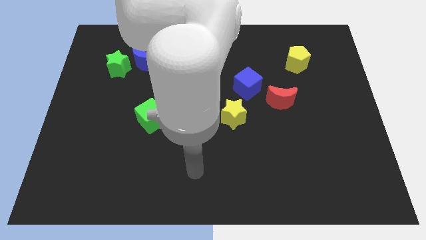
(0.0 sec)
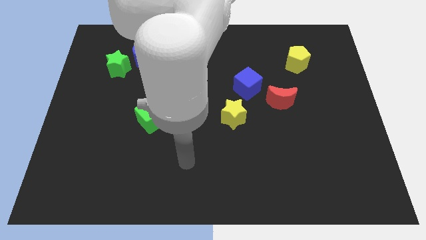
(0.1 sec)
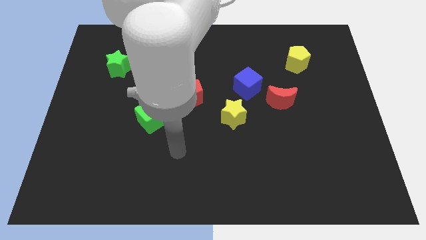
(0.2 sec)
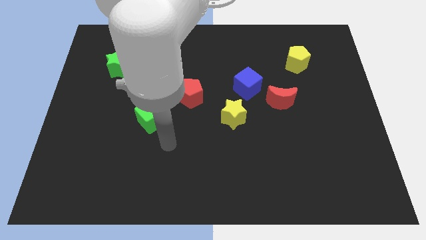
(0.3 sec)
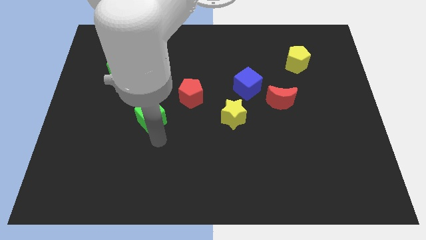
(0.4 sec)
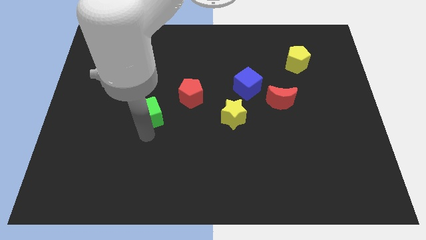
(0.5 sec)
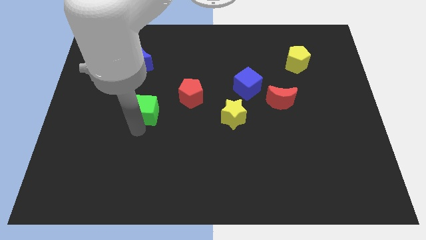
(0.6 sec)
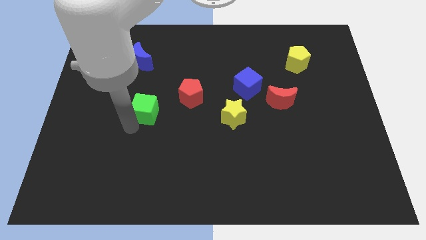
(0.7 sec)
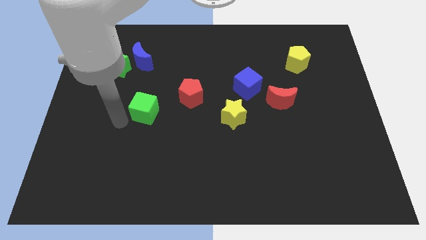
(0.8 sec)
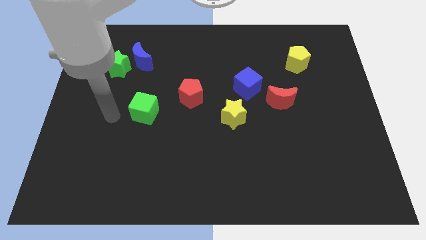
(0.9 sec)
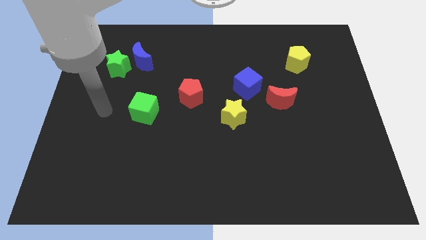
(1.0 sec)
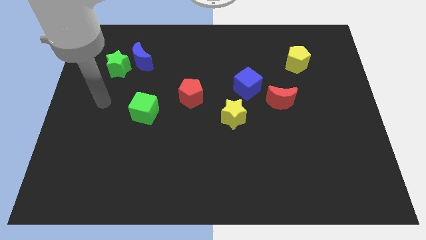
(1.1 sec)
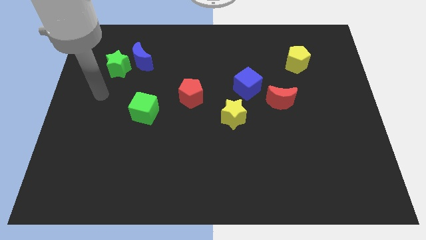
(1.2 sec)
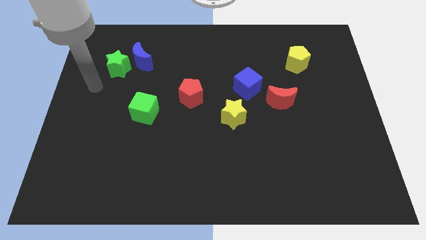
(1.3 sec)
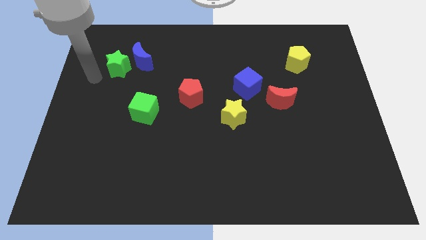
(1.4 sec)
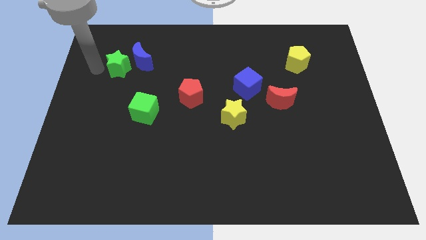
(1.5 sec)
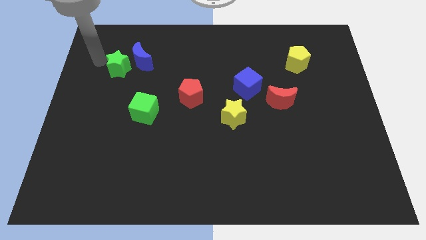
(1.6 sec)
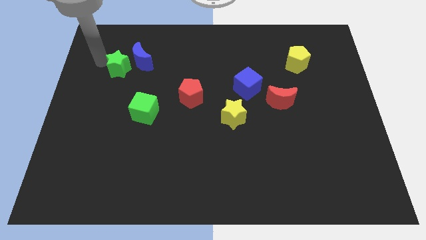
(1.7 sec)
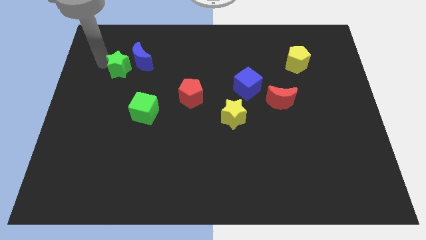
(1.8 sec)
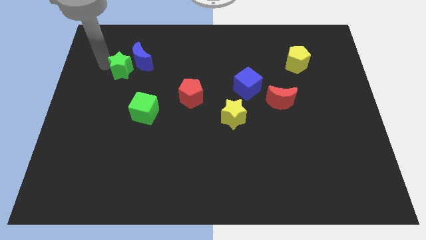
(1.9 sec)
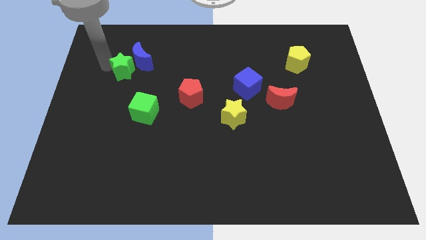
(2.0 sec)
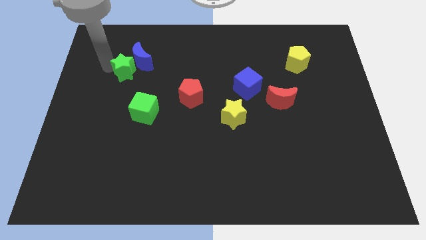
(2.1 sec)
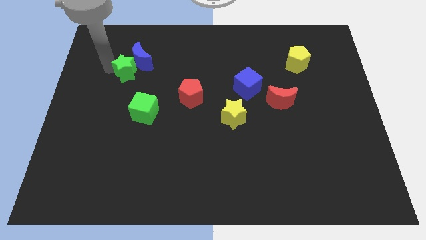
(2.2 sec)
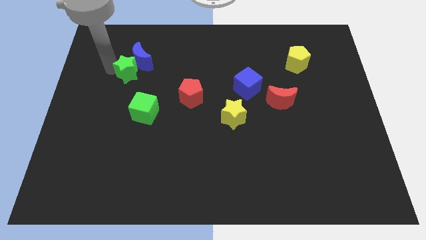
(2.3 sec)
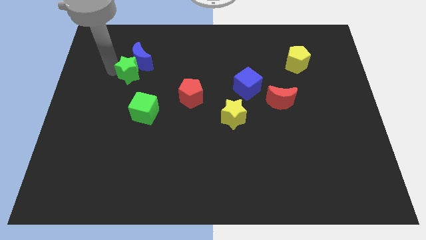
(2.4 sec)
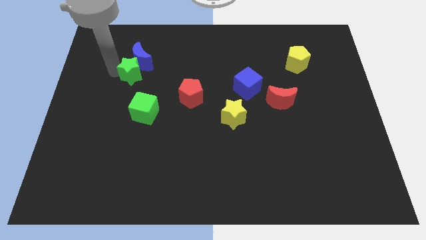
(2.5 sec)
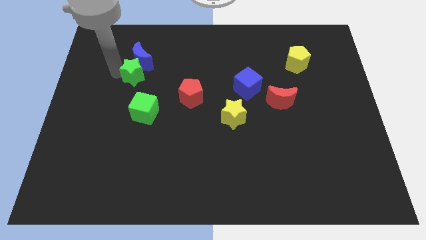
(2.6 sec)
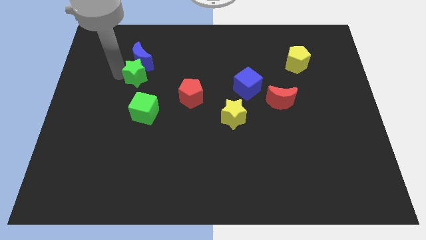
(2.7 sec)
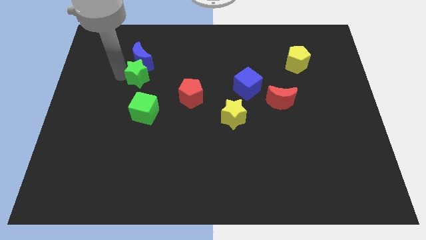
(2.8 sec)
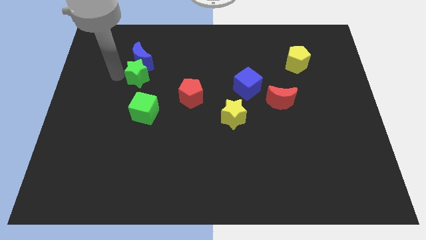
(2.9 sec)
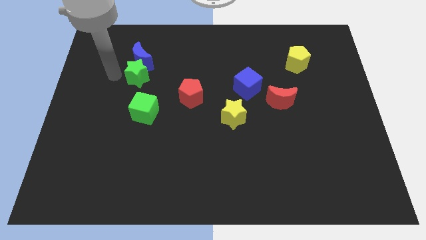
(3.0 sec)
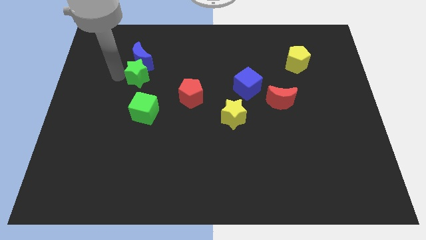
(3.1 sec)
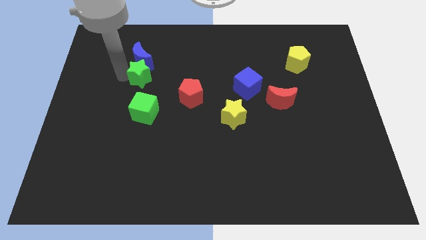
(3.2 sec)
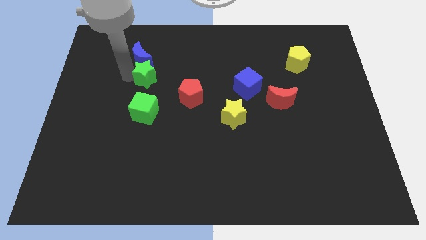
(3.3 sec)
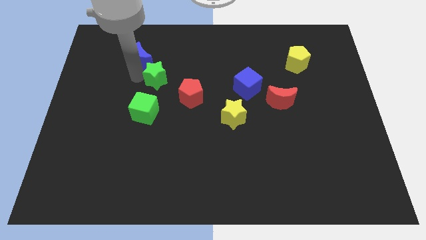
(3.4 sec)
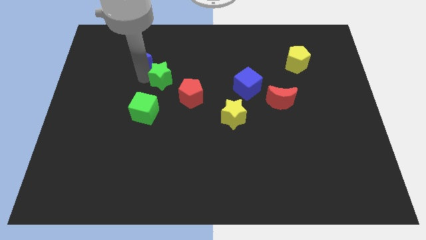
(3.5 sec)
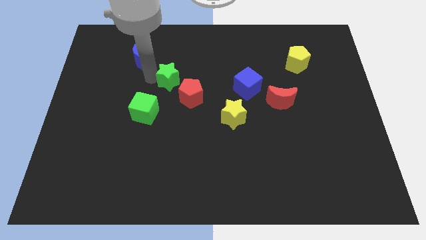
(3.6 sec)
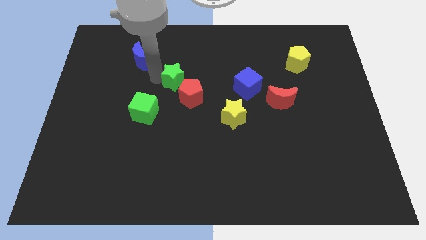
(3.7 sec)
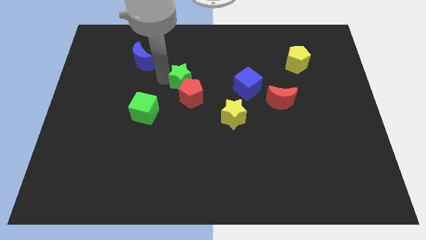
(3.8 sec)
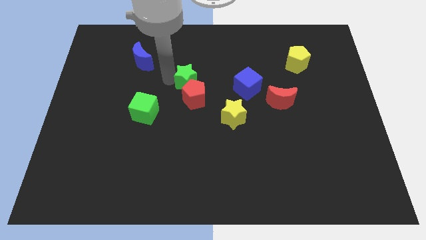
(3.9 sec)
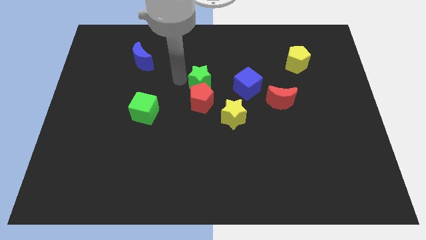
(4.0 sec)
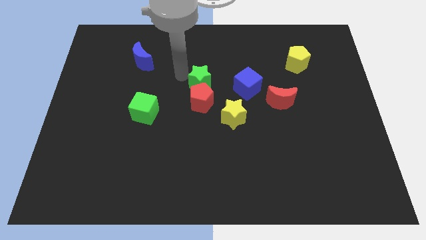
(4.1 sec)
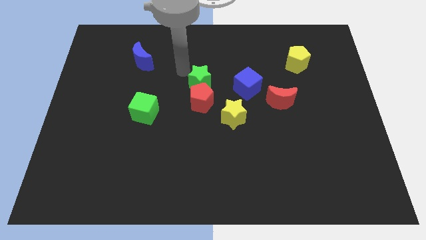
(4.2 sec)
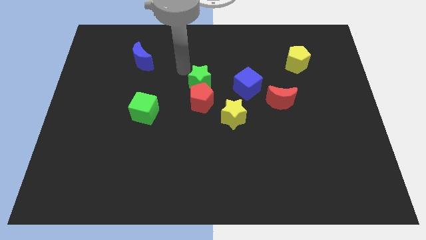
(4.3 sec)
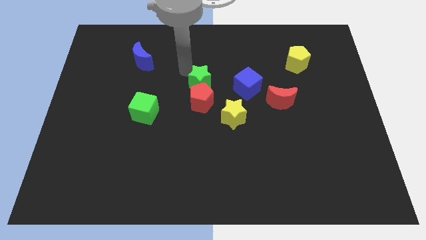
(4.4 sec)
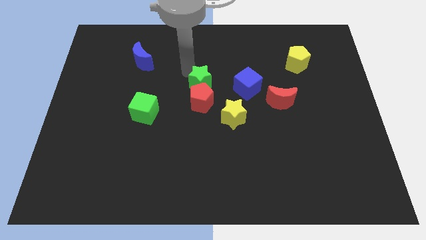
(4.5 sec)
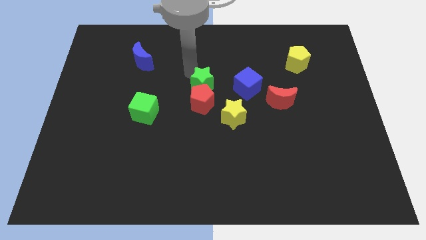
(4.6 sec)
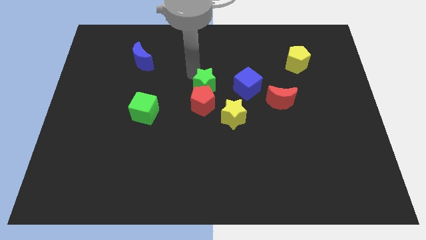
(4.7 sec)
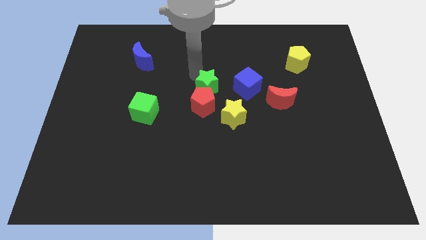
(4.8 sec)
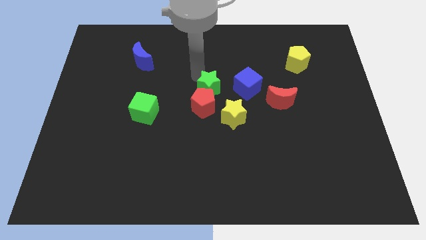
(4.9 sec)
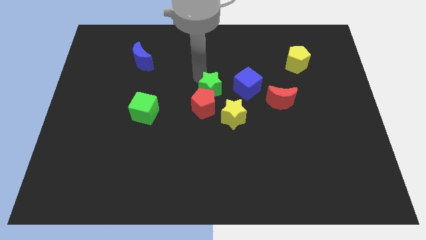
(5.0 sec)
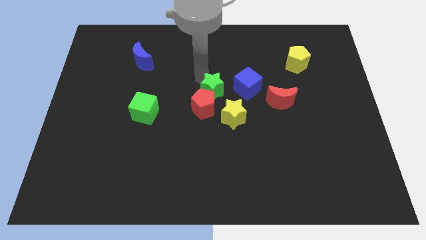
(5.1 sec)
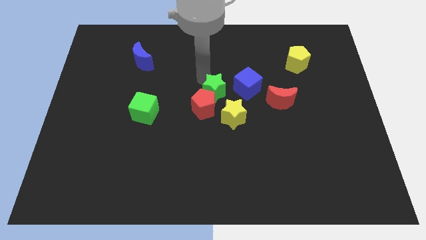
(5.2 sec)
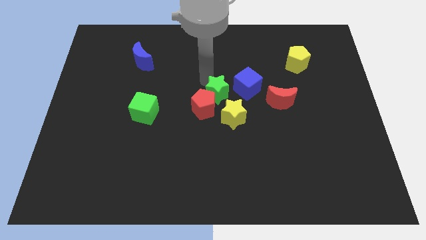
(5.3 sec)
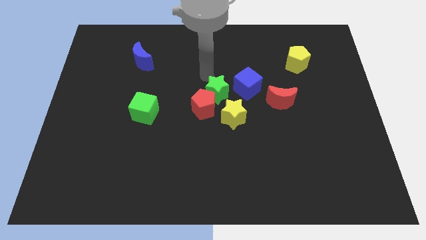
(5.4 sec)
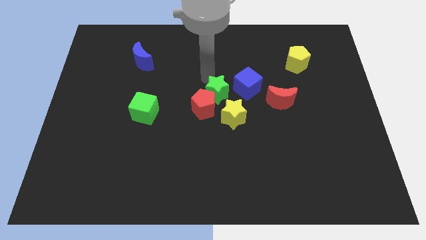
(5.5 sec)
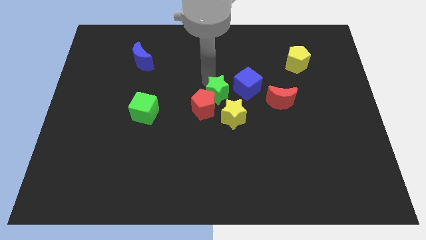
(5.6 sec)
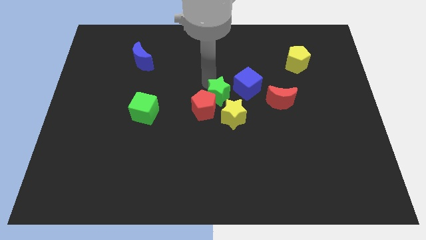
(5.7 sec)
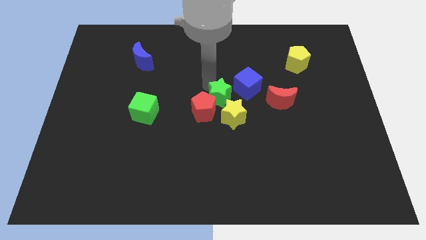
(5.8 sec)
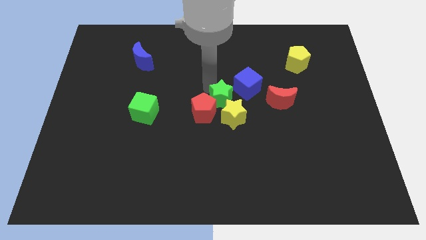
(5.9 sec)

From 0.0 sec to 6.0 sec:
push the green star towards the yellow star

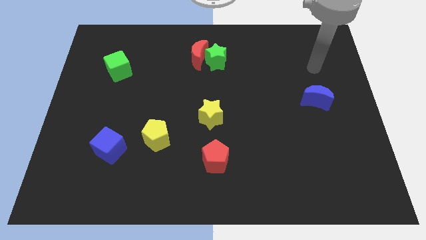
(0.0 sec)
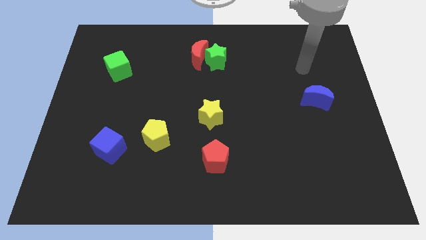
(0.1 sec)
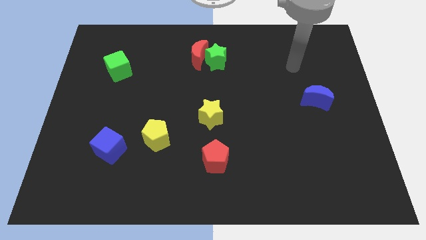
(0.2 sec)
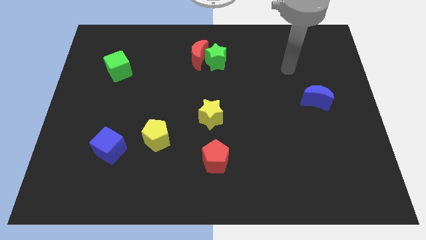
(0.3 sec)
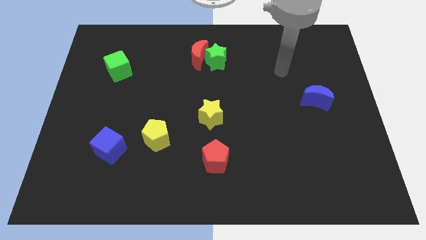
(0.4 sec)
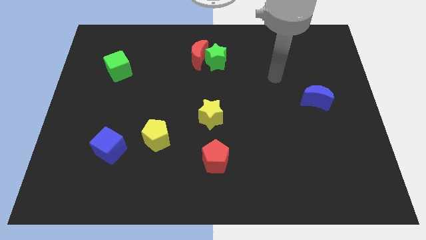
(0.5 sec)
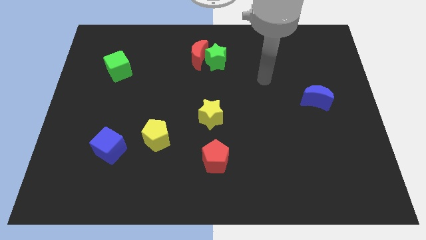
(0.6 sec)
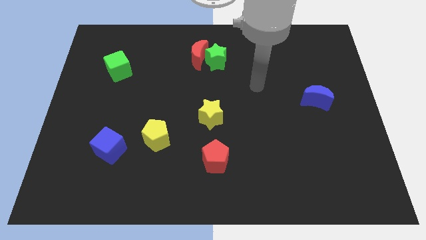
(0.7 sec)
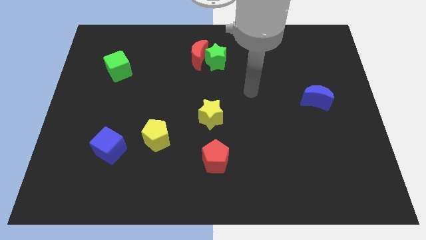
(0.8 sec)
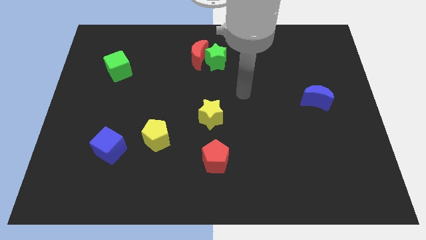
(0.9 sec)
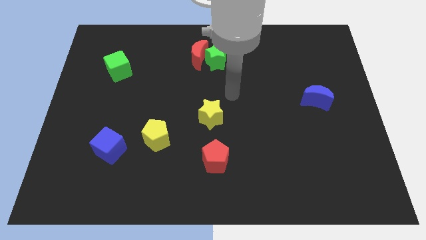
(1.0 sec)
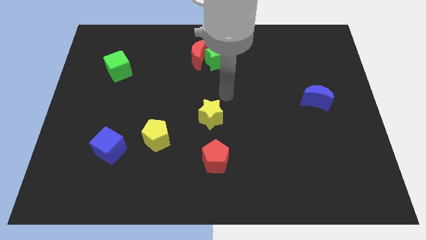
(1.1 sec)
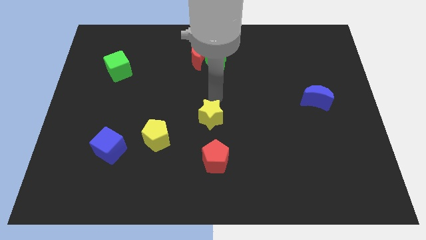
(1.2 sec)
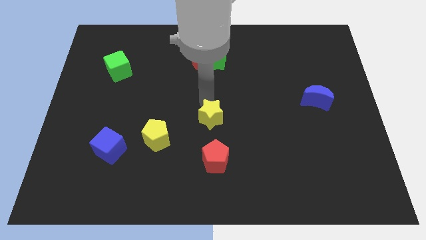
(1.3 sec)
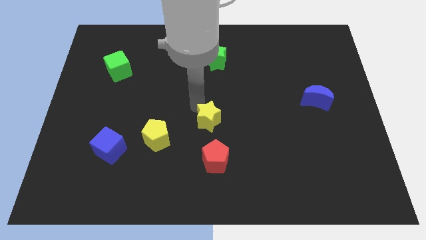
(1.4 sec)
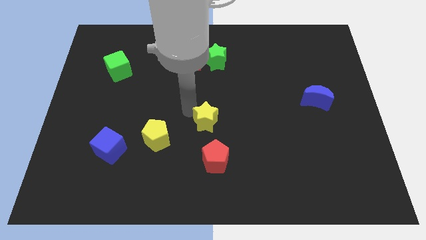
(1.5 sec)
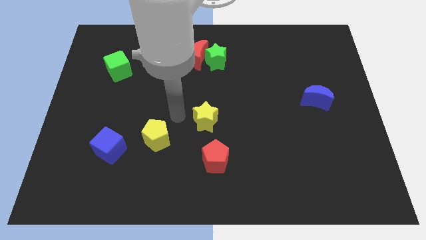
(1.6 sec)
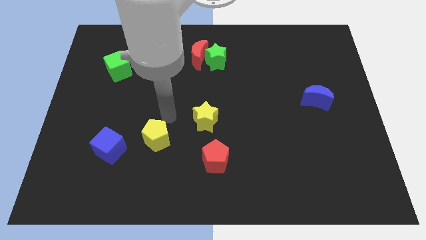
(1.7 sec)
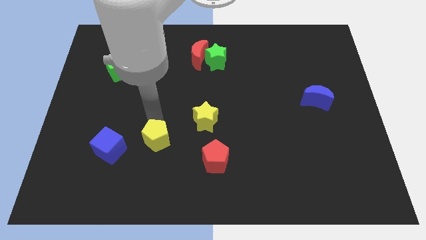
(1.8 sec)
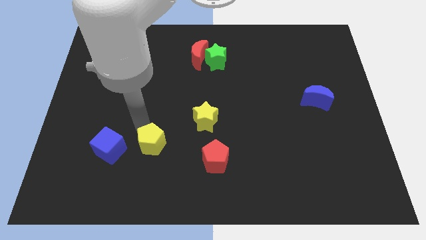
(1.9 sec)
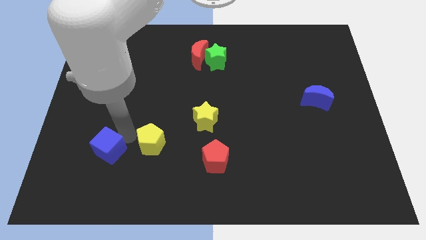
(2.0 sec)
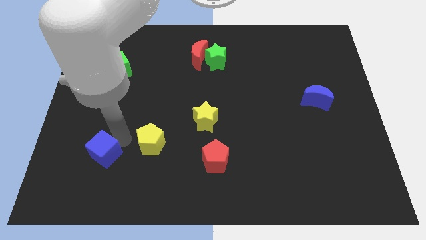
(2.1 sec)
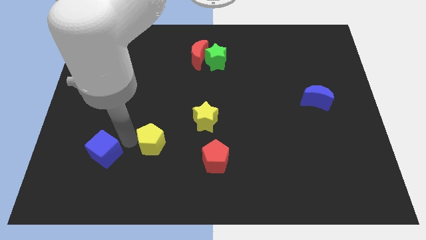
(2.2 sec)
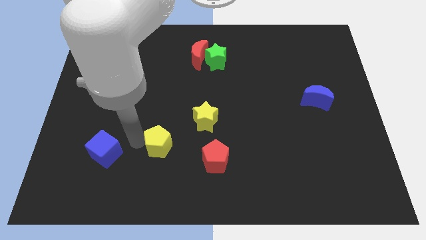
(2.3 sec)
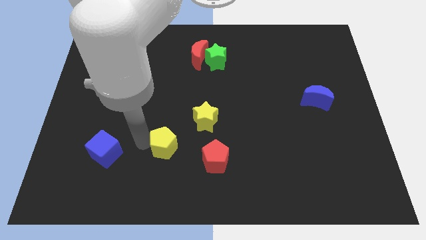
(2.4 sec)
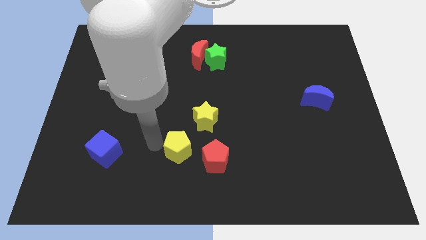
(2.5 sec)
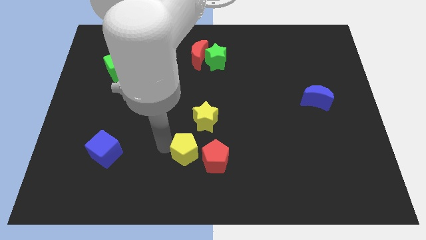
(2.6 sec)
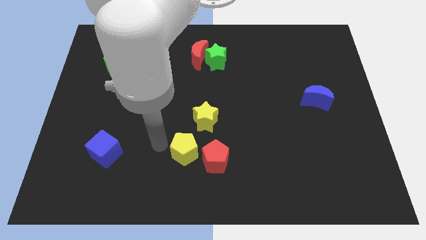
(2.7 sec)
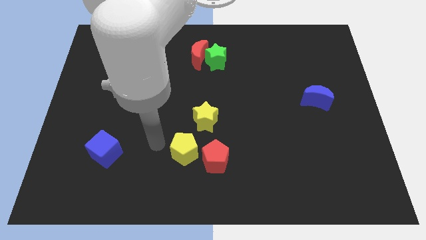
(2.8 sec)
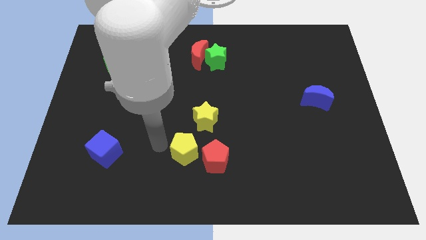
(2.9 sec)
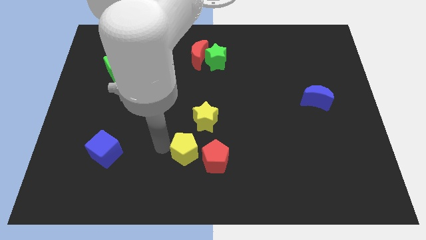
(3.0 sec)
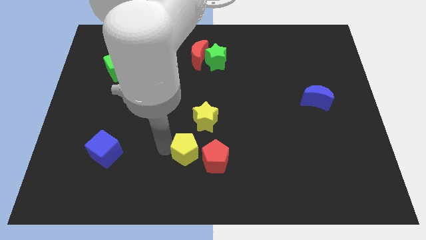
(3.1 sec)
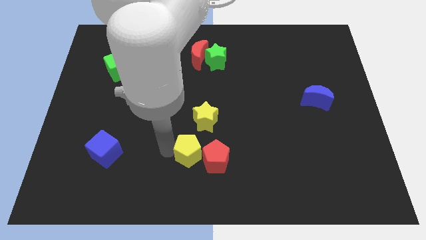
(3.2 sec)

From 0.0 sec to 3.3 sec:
push the yellow pentagon close to the red pentagon
